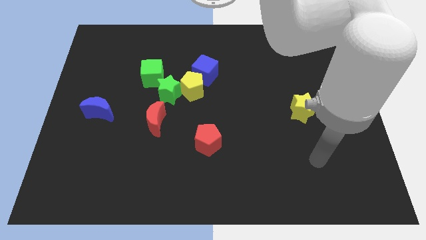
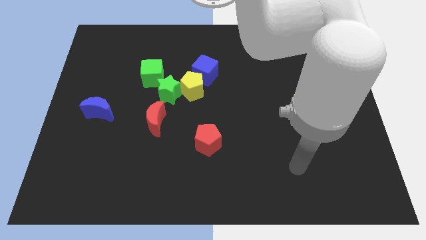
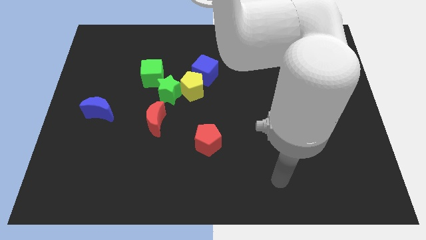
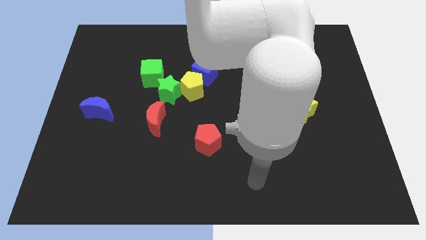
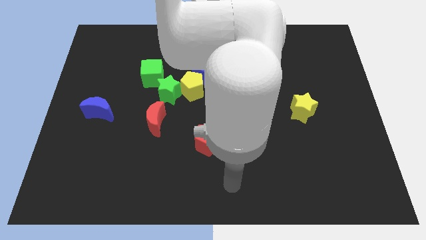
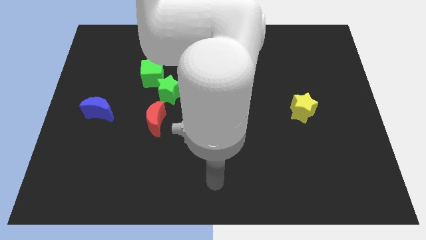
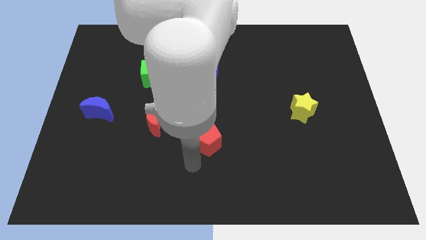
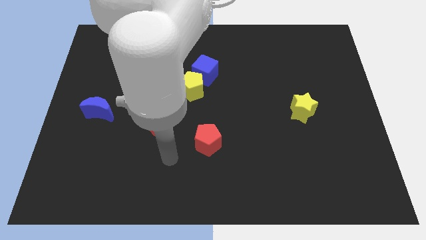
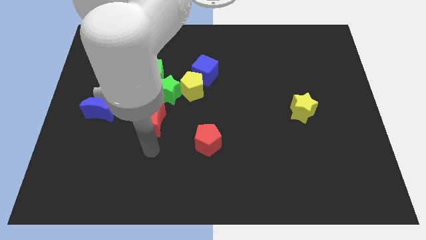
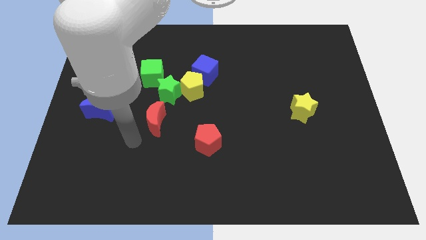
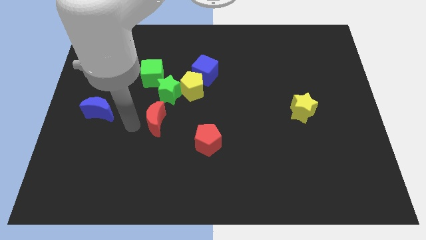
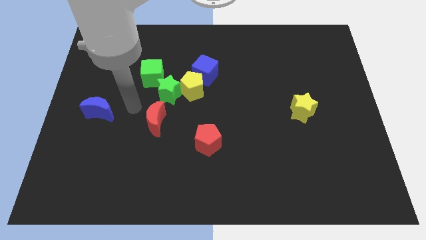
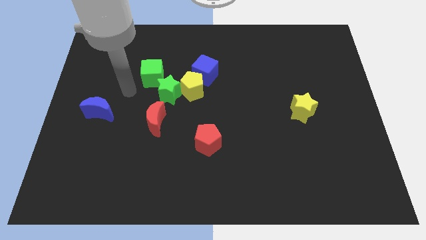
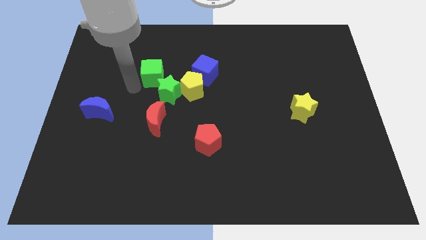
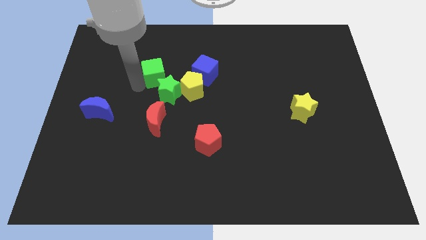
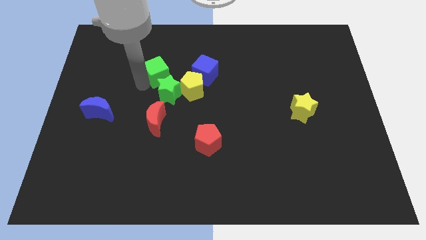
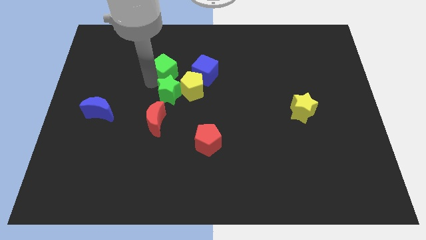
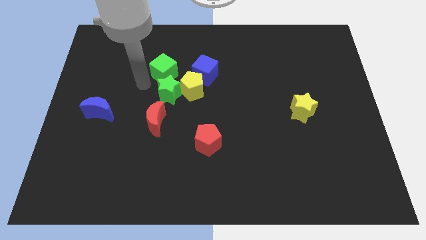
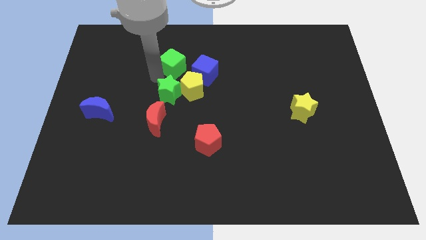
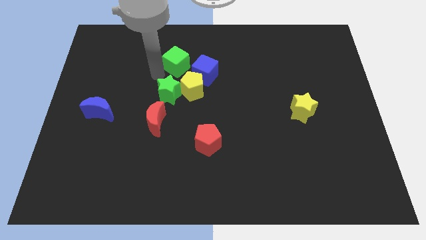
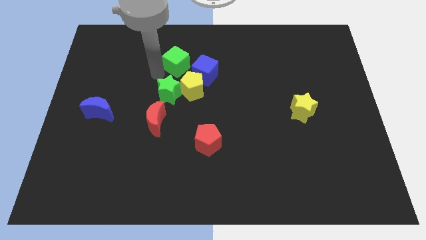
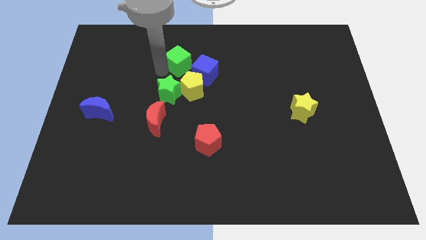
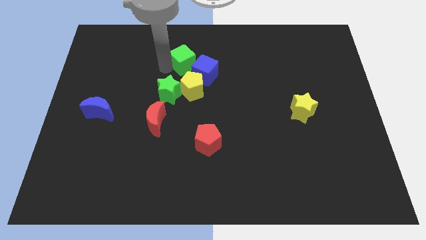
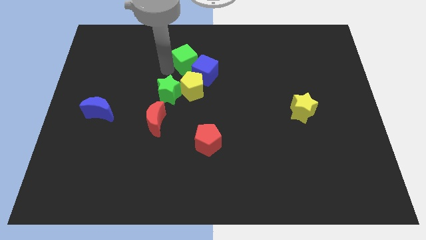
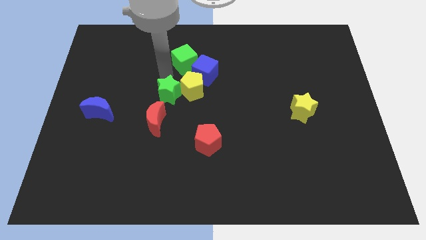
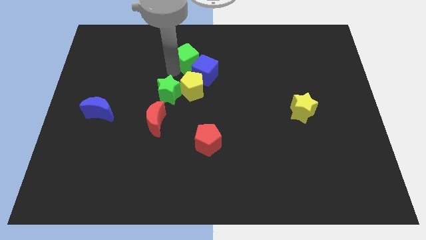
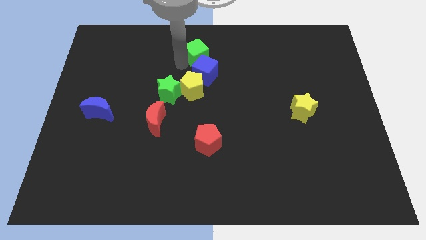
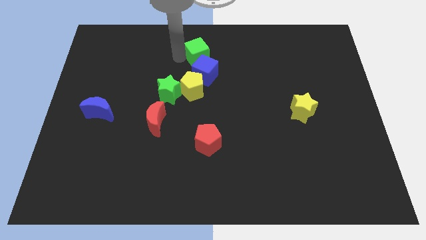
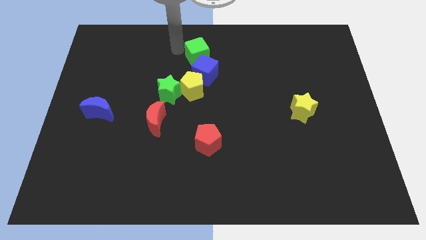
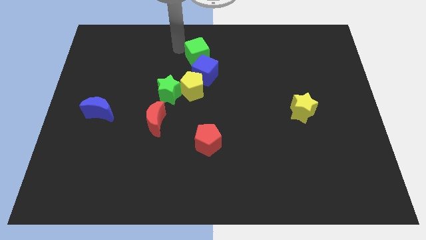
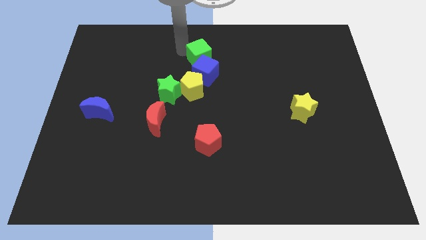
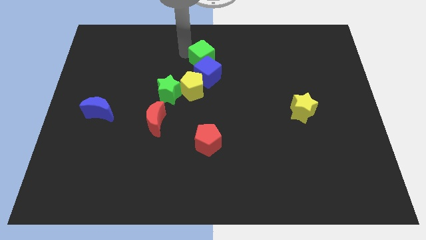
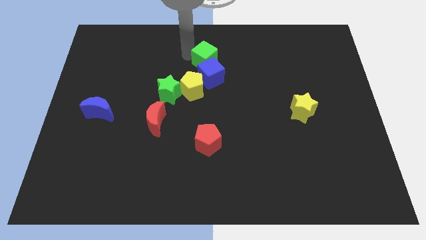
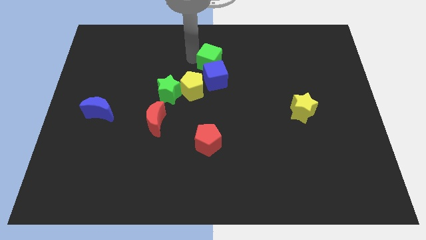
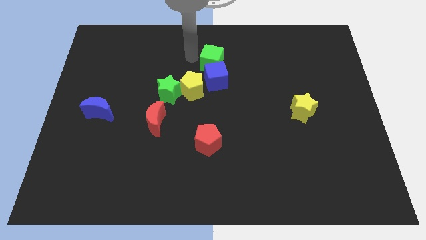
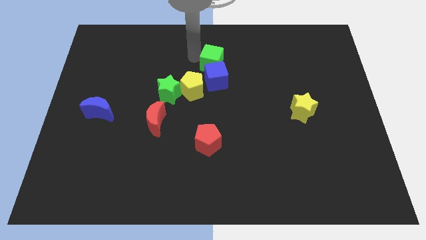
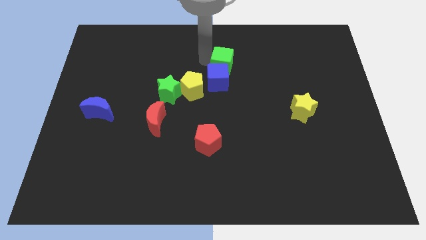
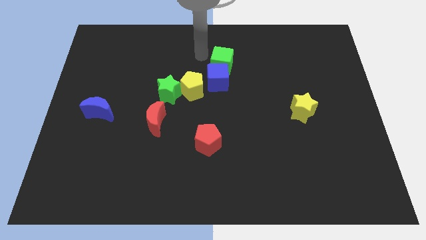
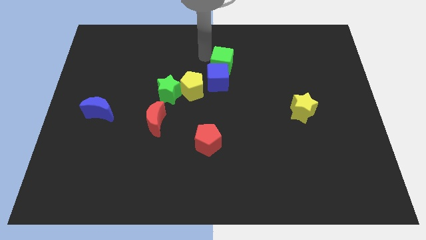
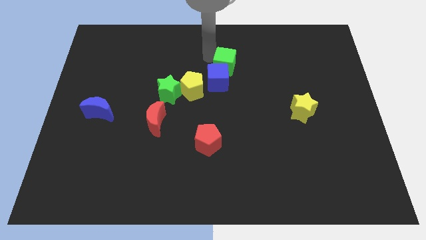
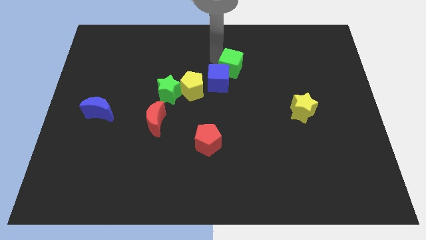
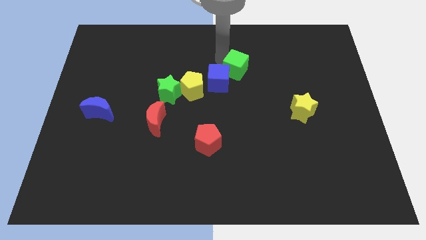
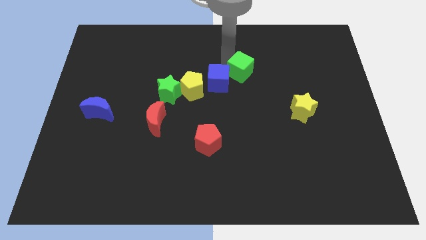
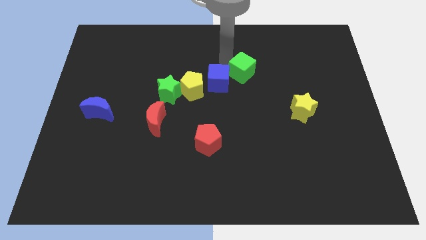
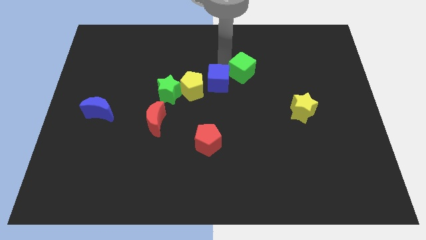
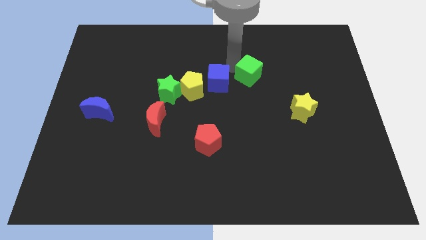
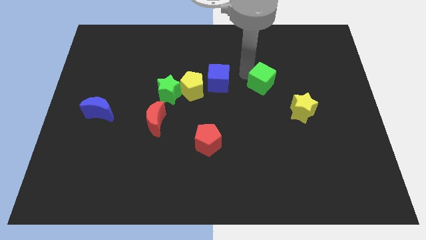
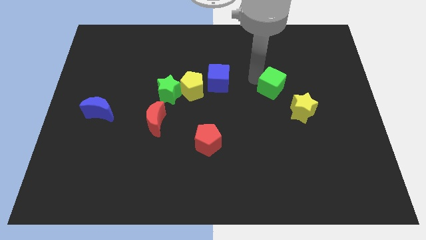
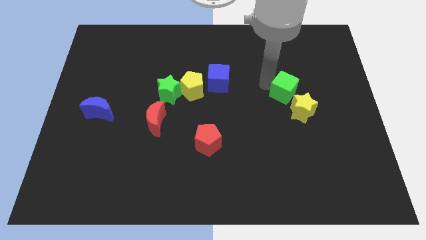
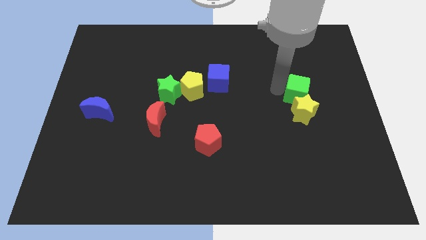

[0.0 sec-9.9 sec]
push the green cube to the top right of the yellow star

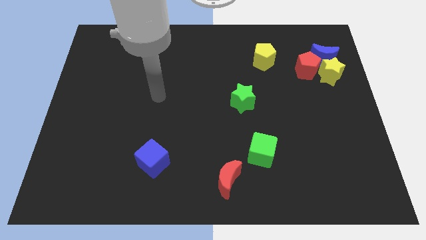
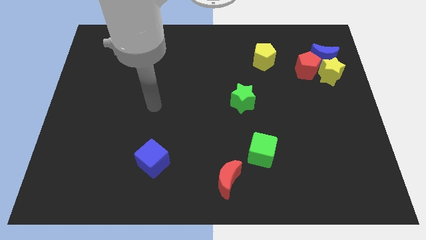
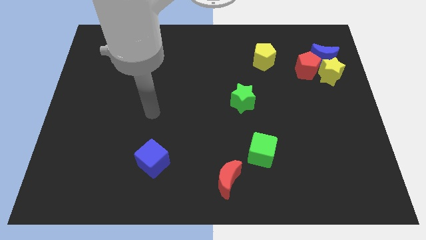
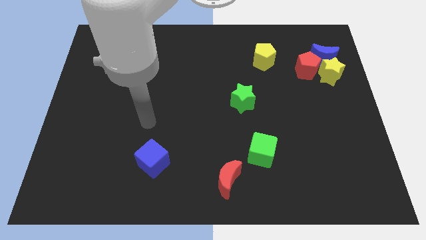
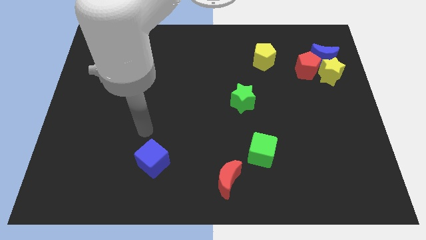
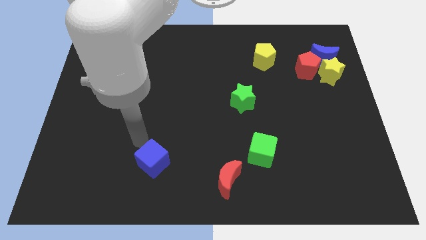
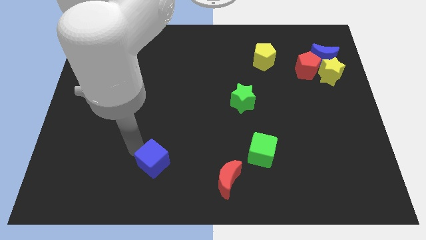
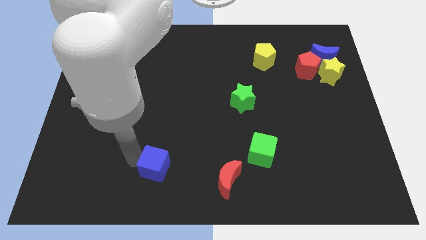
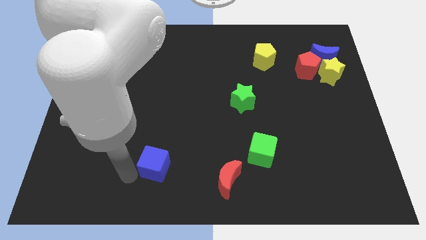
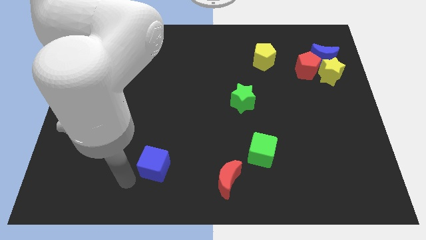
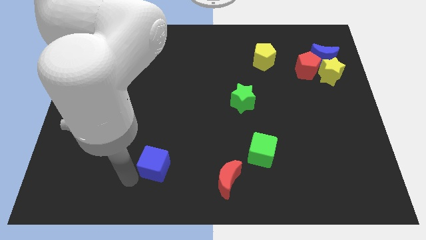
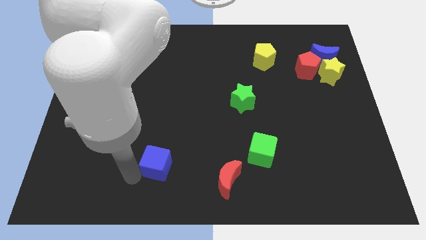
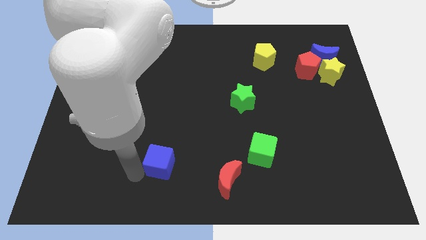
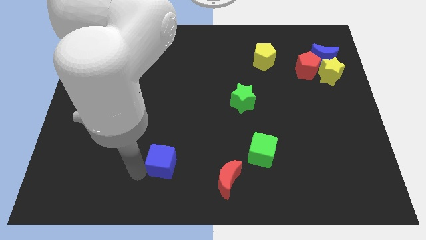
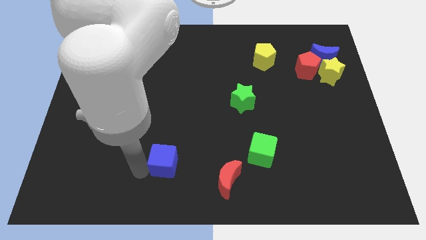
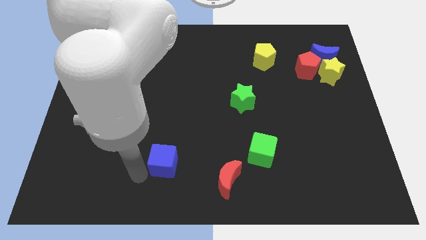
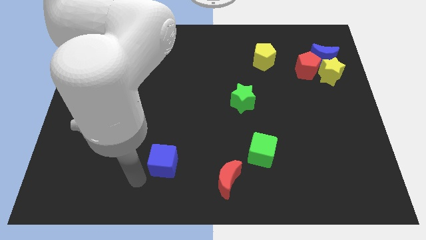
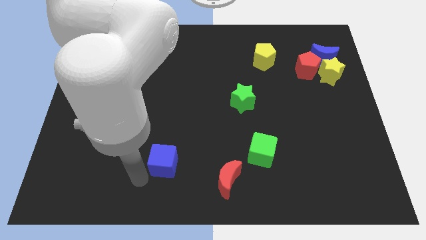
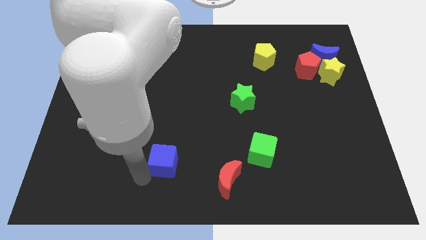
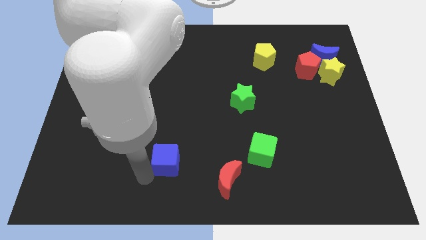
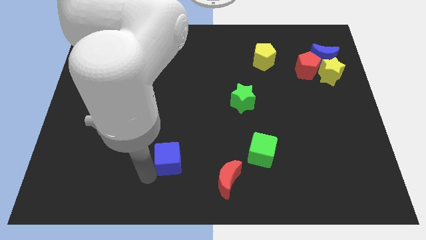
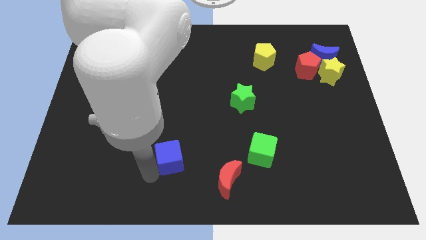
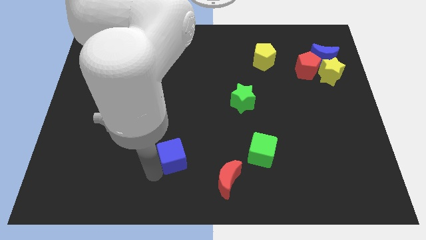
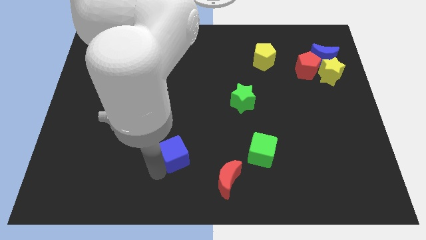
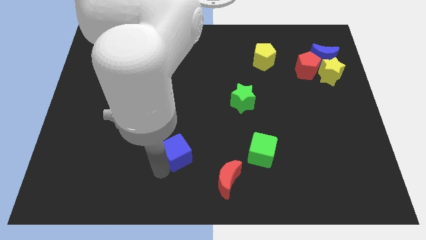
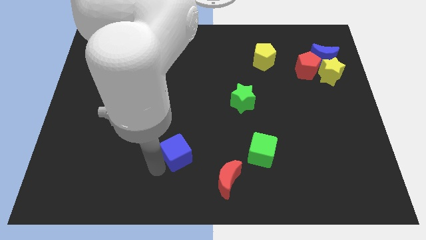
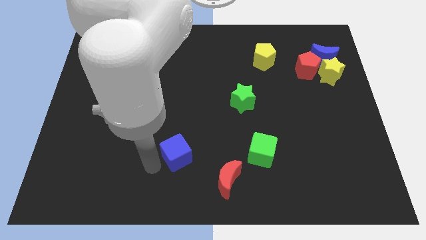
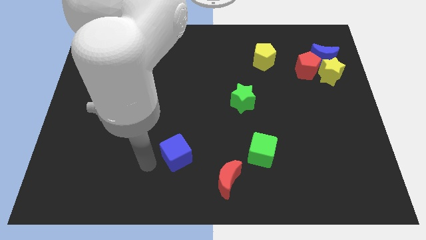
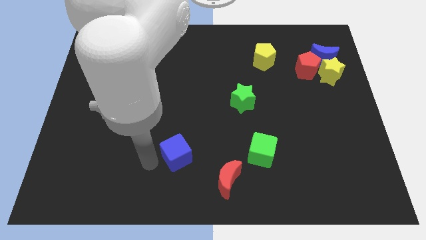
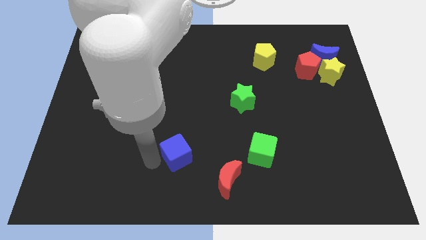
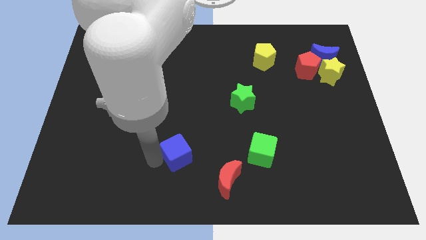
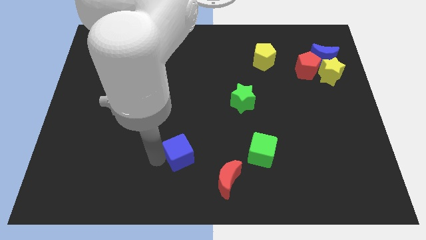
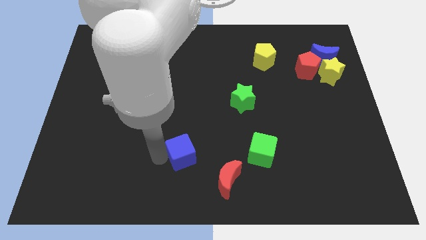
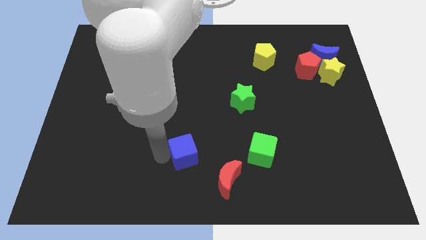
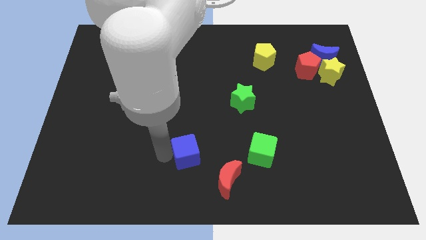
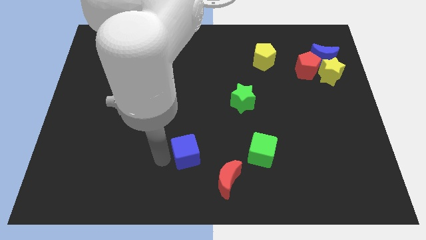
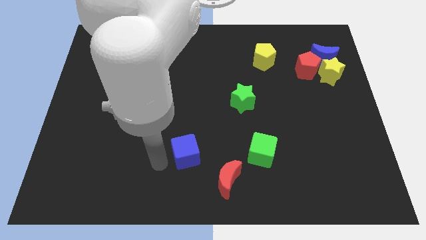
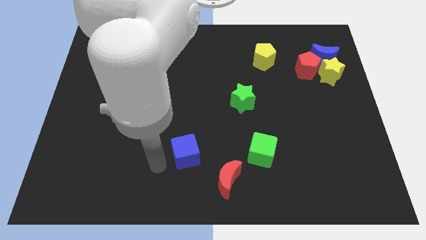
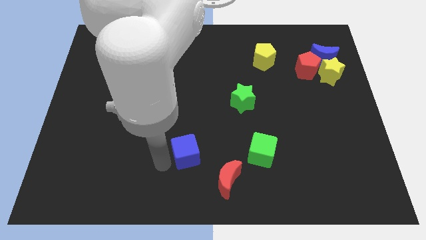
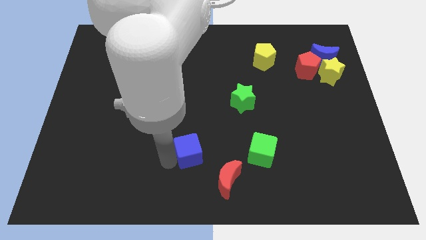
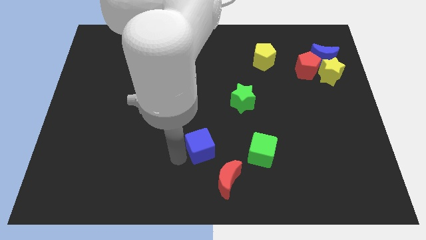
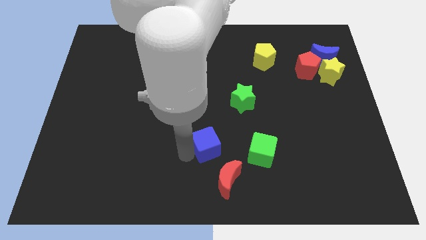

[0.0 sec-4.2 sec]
push the blue cube to the top side of the red moon
